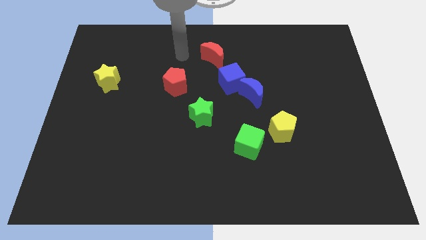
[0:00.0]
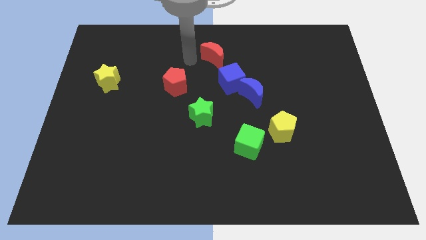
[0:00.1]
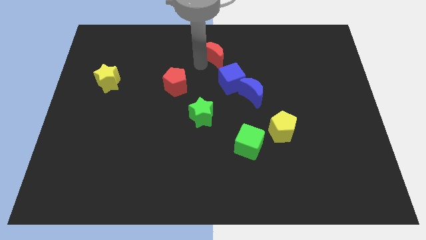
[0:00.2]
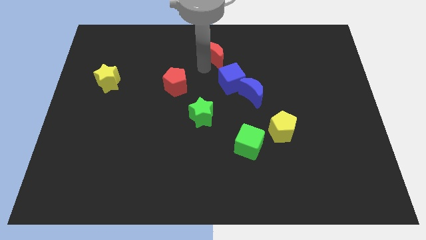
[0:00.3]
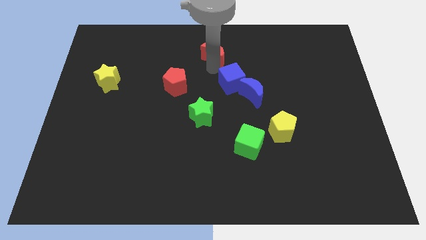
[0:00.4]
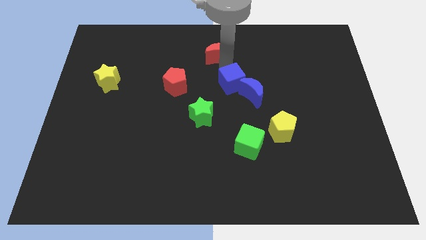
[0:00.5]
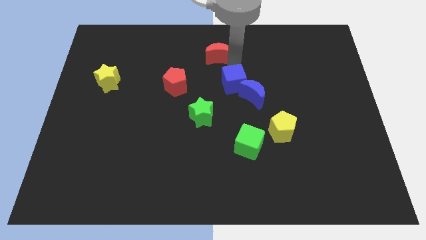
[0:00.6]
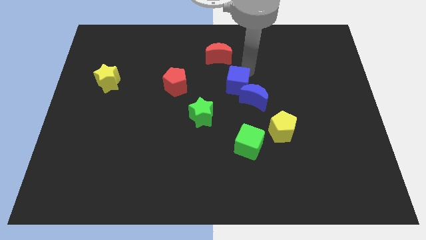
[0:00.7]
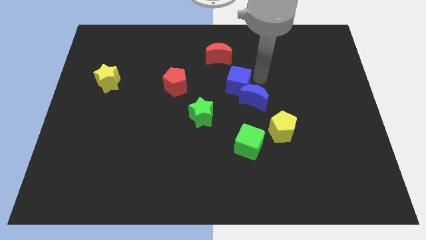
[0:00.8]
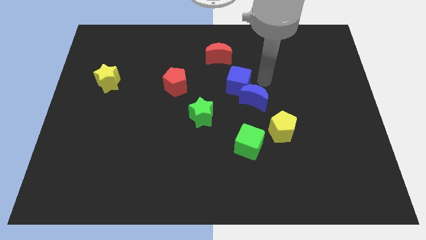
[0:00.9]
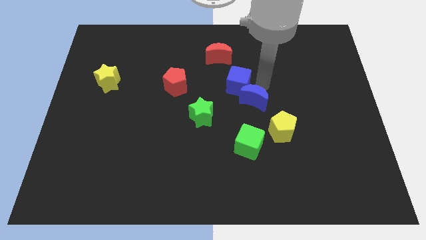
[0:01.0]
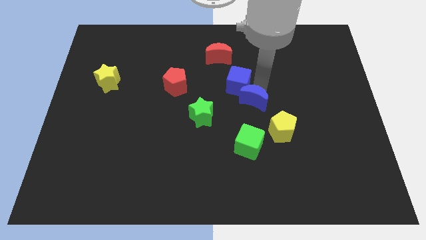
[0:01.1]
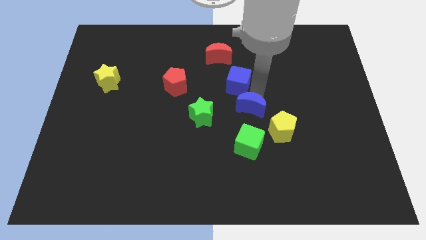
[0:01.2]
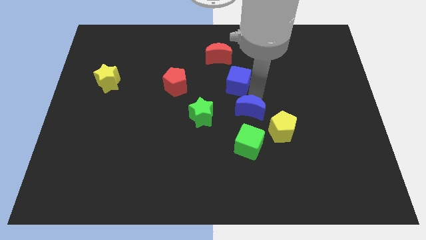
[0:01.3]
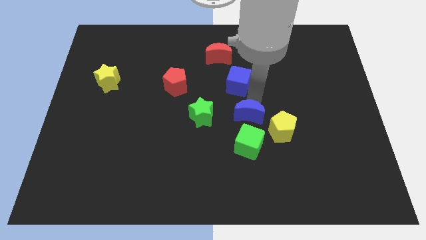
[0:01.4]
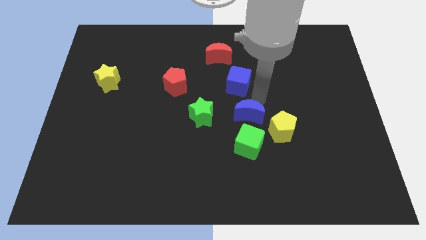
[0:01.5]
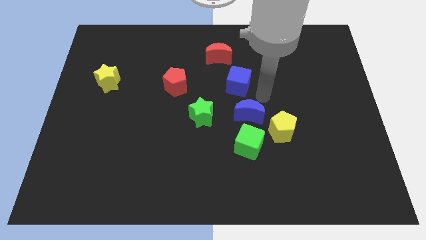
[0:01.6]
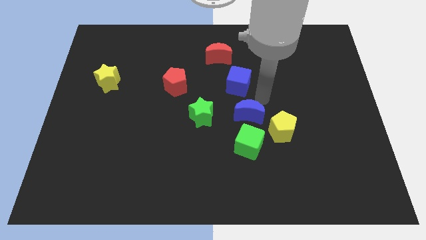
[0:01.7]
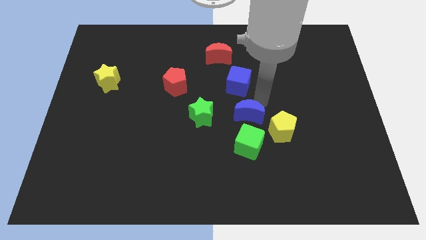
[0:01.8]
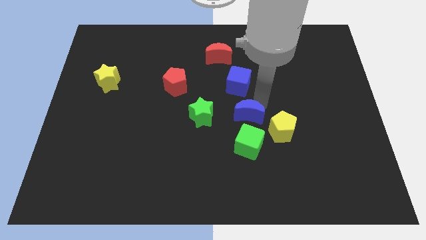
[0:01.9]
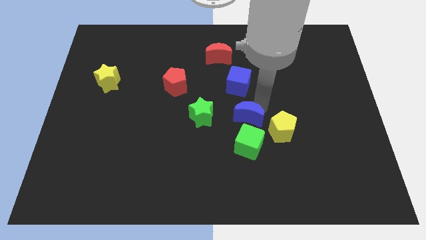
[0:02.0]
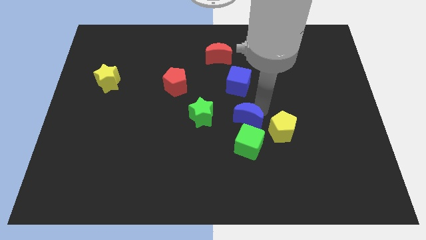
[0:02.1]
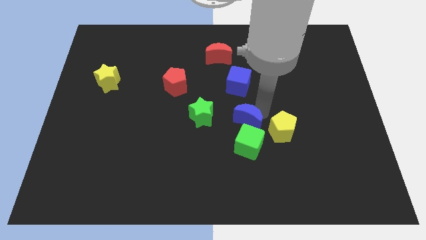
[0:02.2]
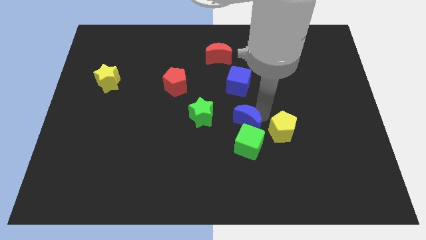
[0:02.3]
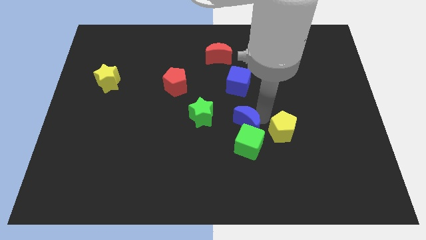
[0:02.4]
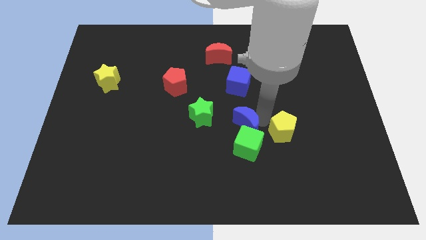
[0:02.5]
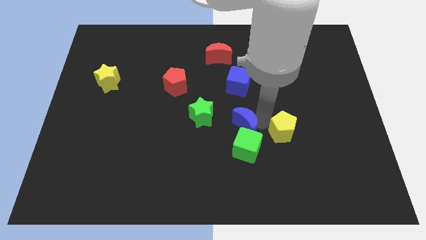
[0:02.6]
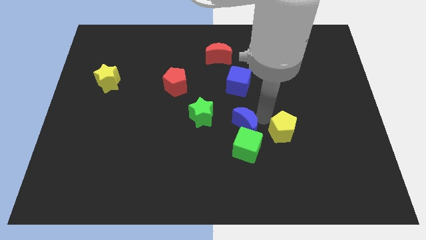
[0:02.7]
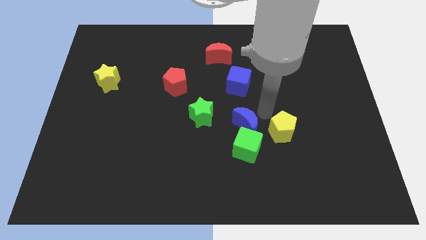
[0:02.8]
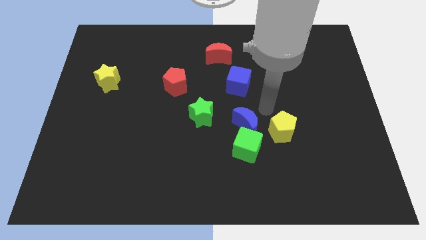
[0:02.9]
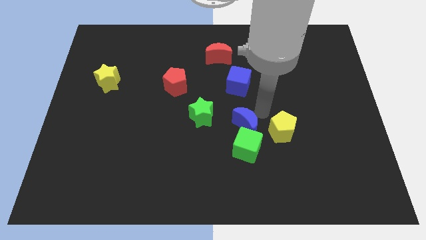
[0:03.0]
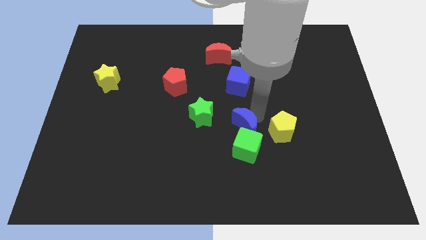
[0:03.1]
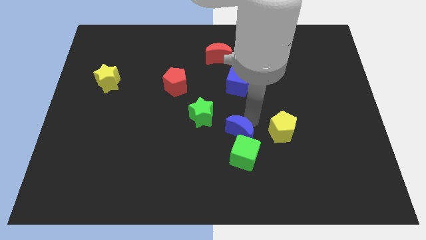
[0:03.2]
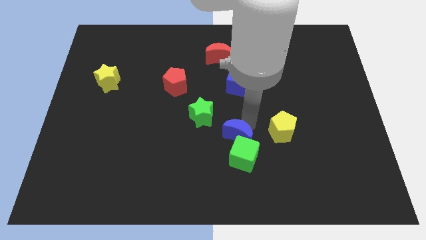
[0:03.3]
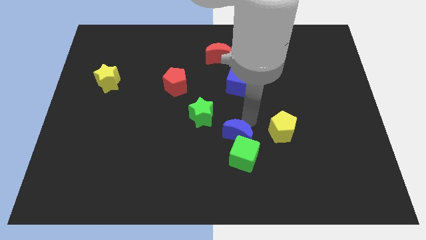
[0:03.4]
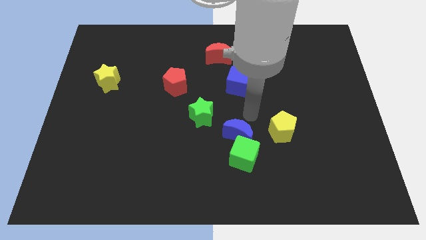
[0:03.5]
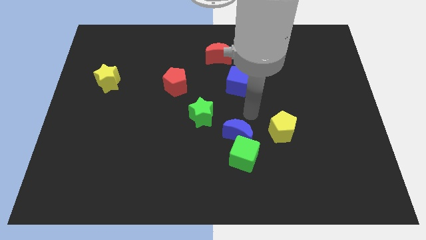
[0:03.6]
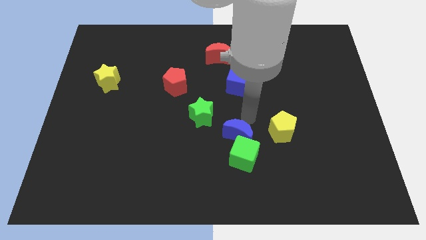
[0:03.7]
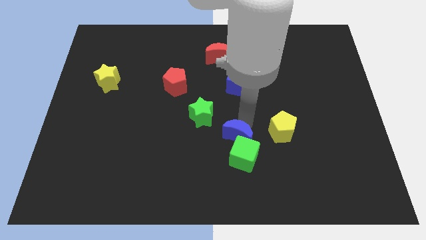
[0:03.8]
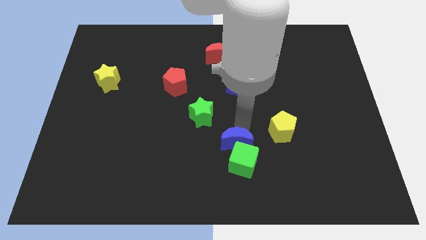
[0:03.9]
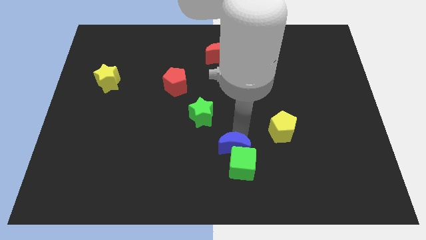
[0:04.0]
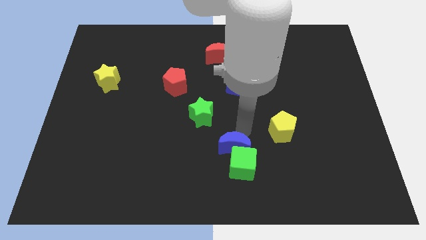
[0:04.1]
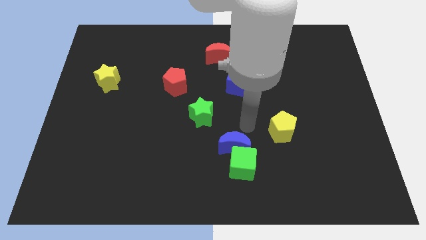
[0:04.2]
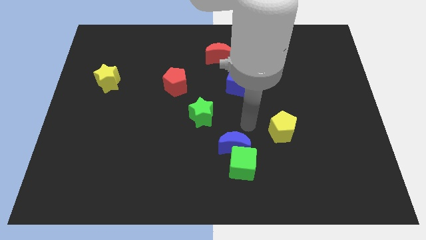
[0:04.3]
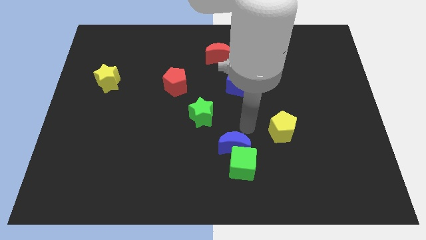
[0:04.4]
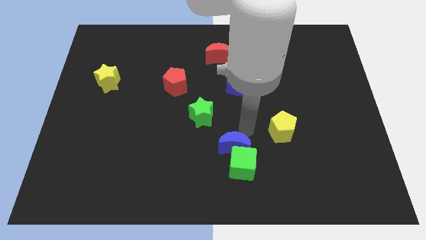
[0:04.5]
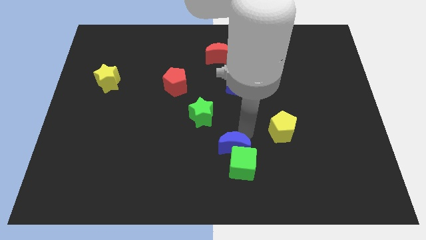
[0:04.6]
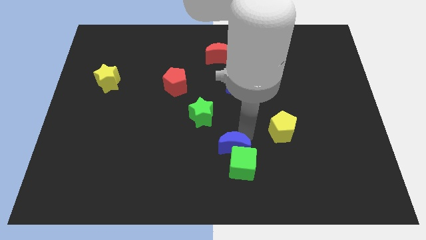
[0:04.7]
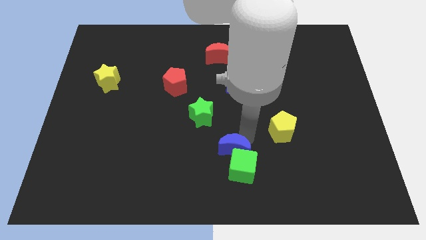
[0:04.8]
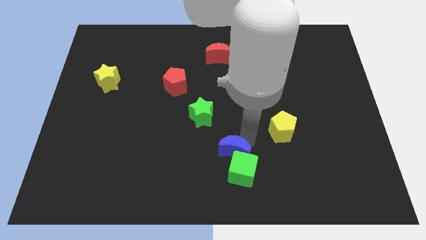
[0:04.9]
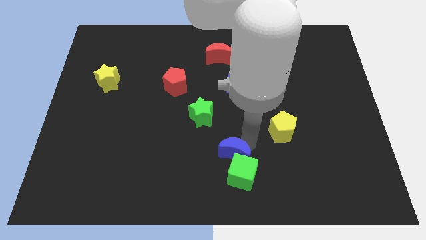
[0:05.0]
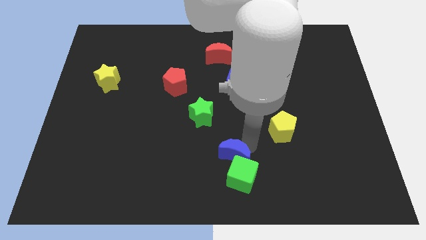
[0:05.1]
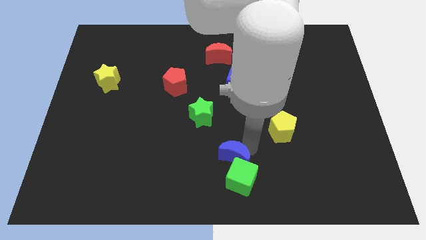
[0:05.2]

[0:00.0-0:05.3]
move the blue moon to the bottom

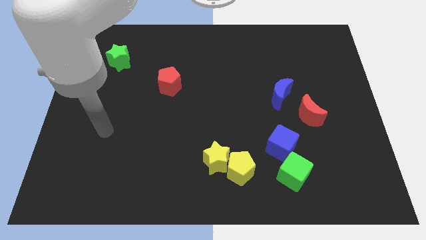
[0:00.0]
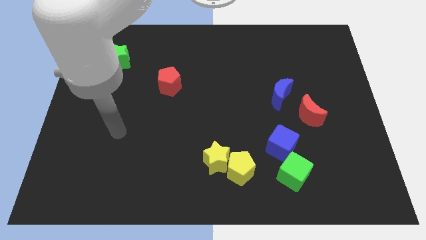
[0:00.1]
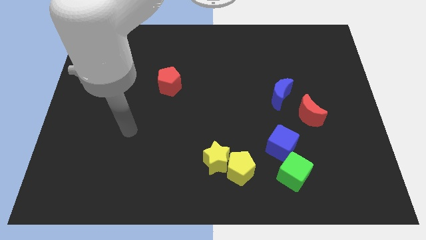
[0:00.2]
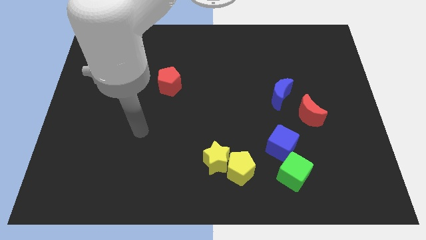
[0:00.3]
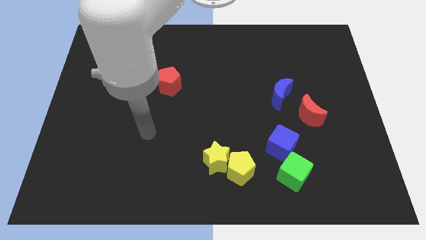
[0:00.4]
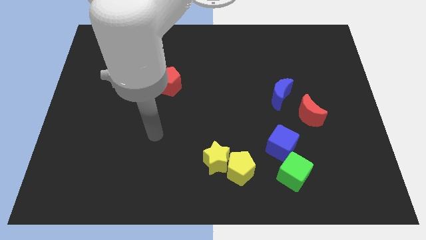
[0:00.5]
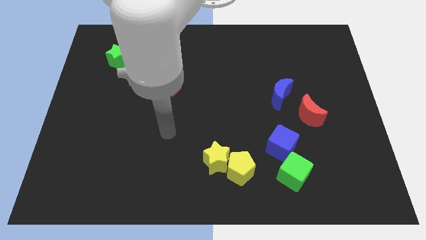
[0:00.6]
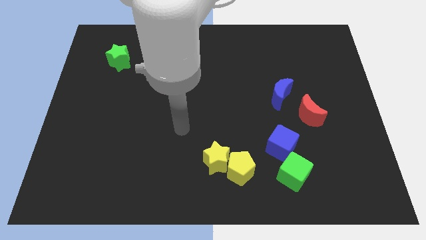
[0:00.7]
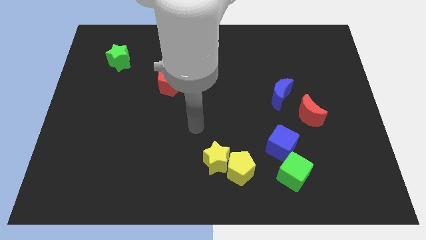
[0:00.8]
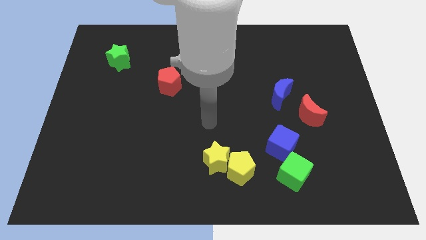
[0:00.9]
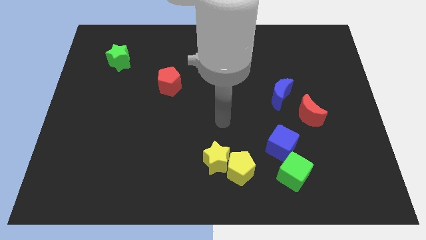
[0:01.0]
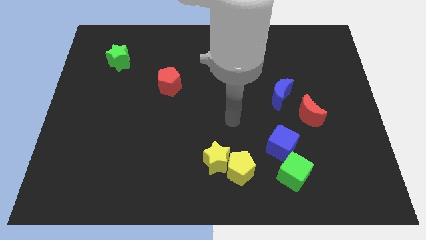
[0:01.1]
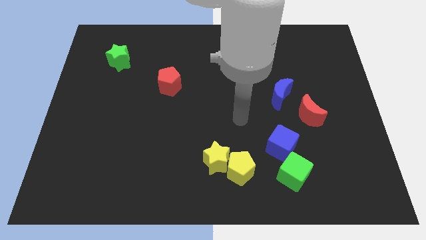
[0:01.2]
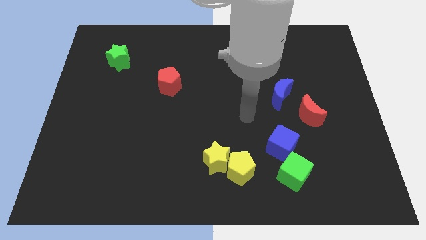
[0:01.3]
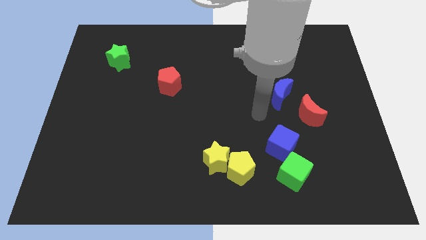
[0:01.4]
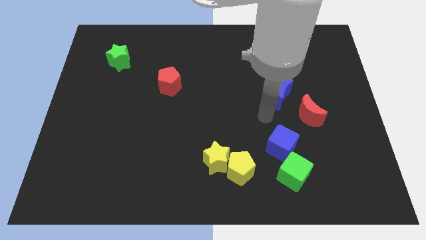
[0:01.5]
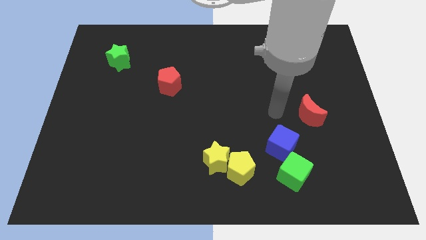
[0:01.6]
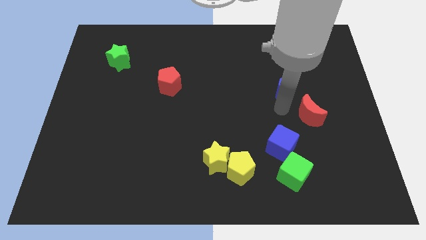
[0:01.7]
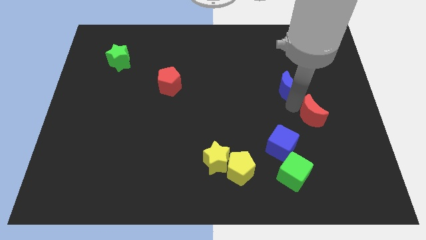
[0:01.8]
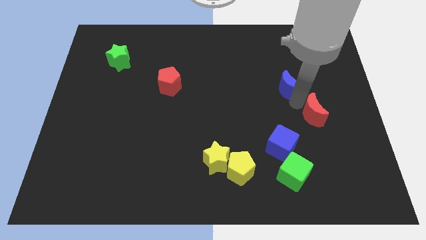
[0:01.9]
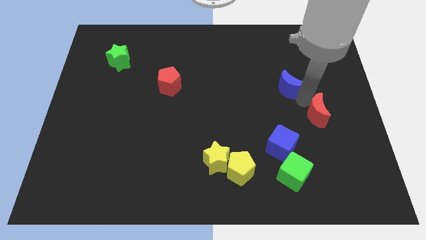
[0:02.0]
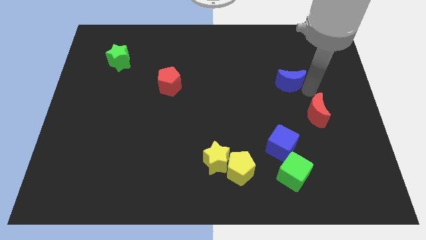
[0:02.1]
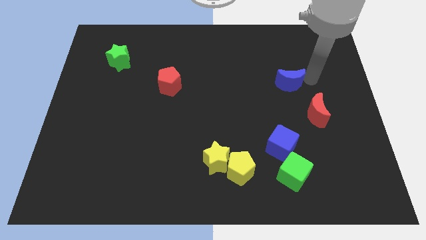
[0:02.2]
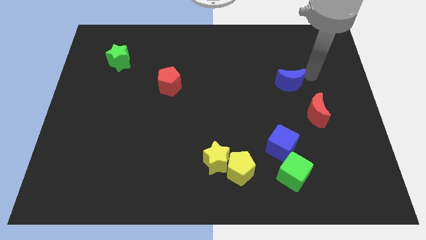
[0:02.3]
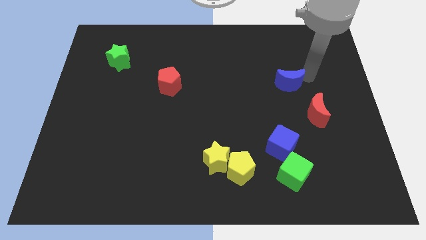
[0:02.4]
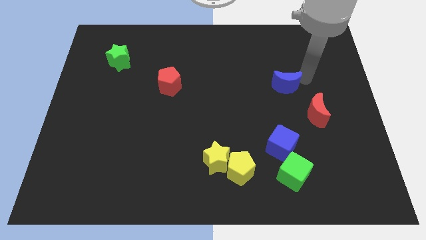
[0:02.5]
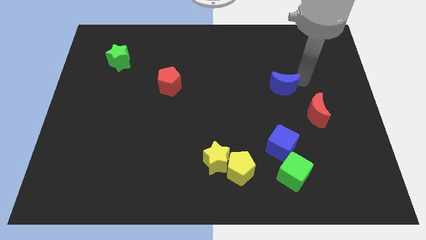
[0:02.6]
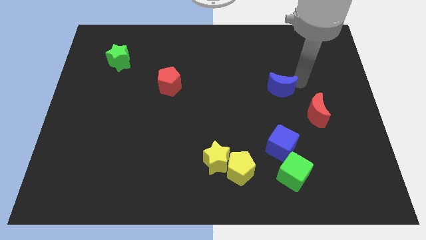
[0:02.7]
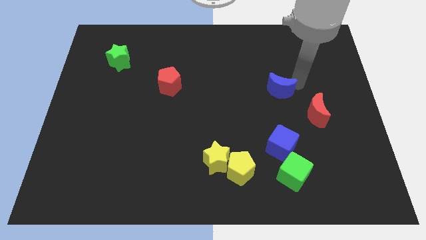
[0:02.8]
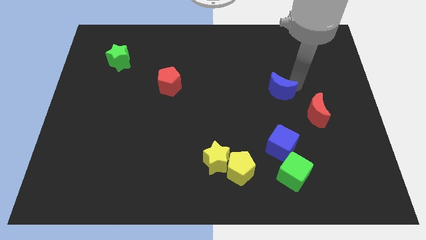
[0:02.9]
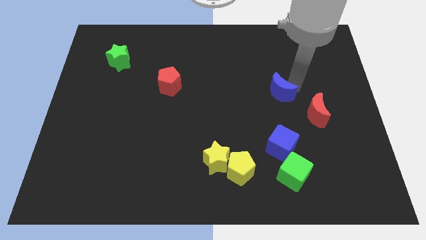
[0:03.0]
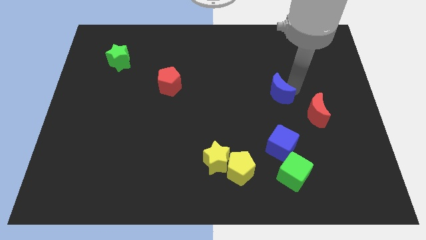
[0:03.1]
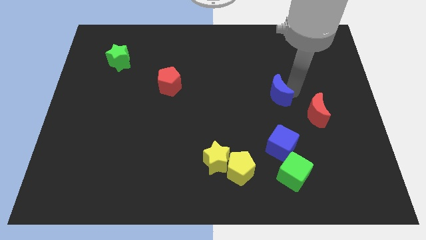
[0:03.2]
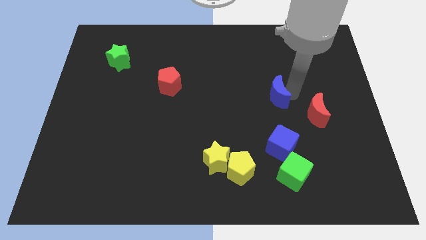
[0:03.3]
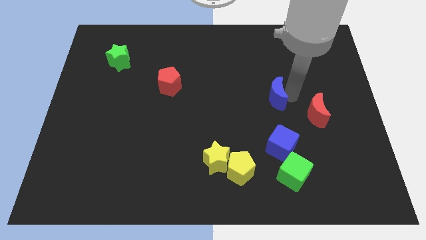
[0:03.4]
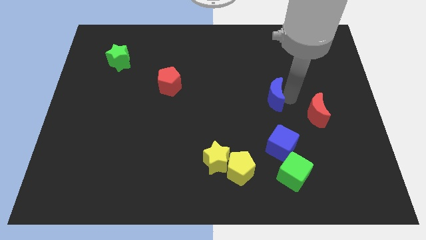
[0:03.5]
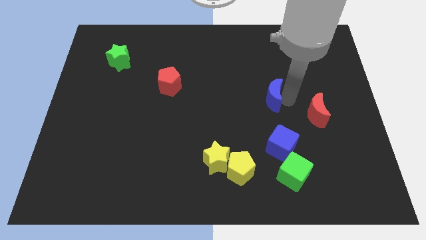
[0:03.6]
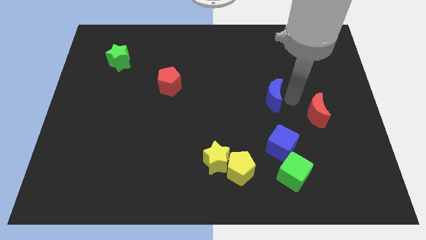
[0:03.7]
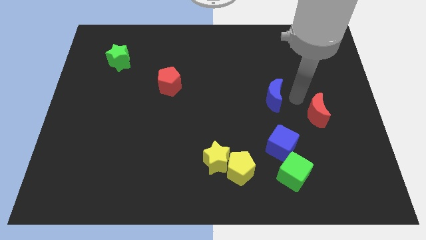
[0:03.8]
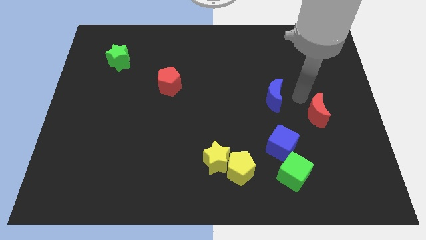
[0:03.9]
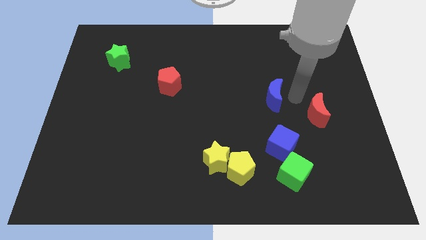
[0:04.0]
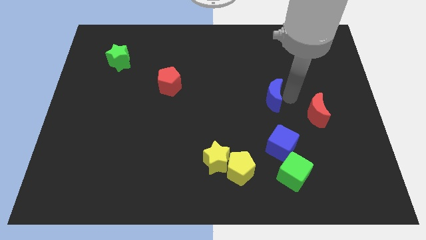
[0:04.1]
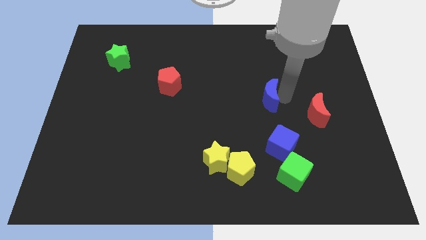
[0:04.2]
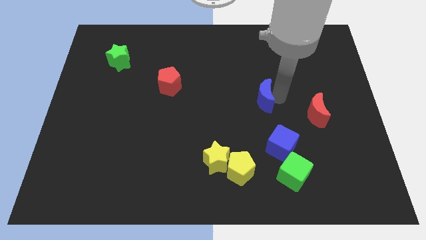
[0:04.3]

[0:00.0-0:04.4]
slide the blue moon to the middle
